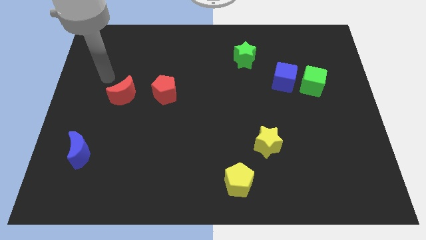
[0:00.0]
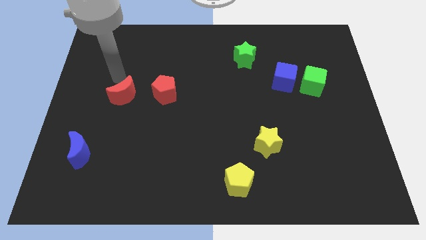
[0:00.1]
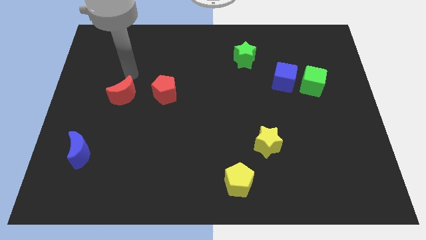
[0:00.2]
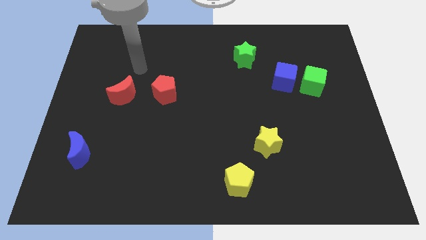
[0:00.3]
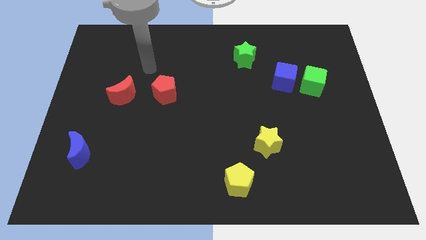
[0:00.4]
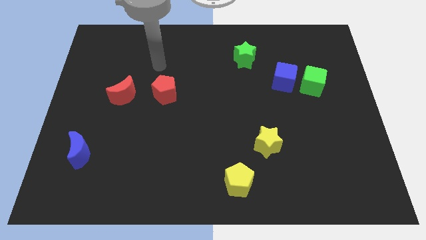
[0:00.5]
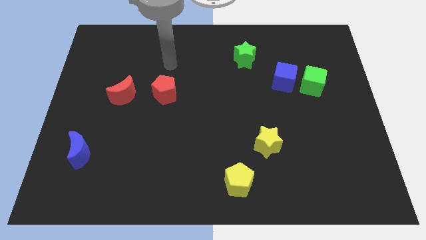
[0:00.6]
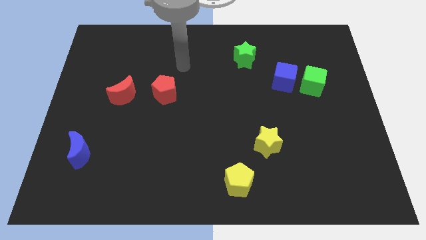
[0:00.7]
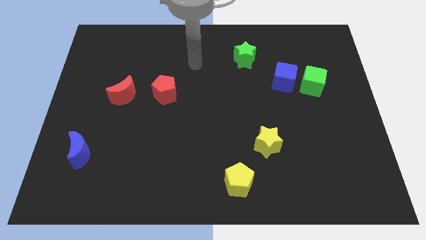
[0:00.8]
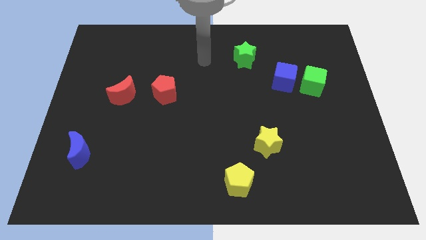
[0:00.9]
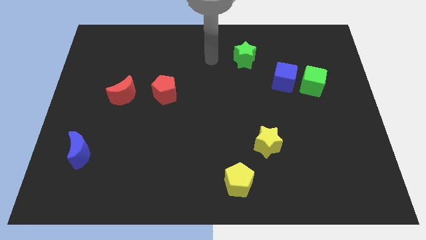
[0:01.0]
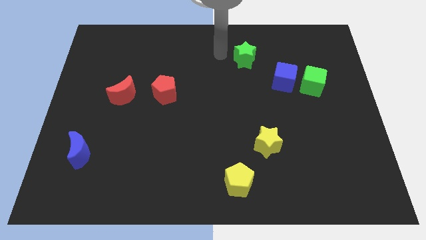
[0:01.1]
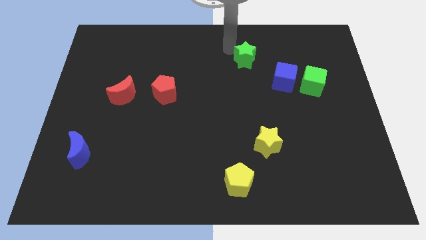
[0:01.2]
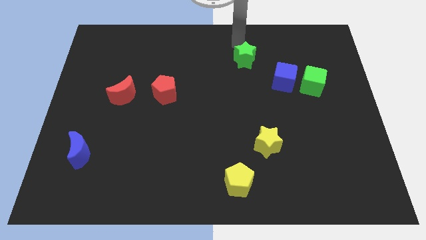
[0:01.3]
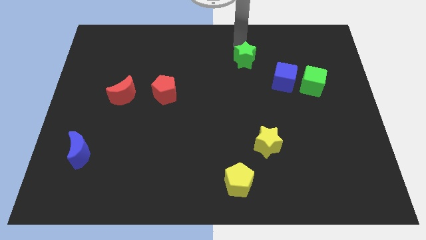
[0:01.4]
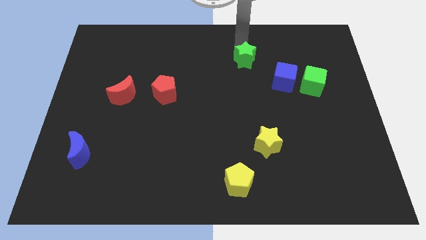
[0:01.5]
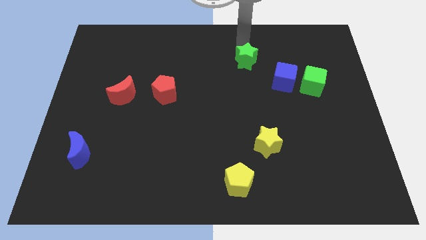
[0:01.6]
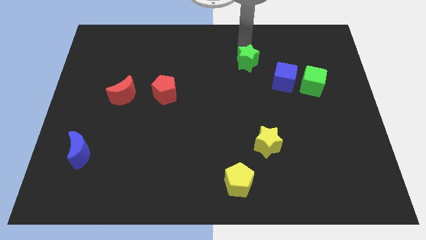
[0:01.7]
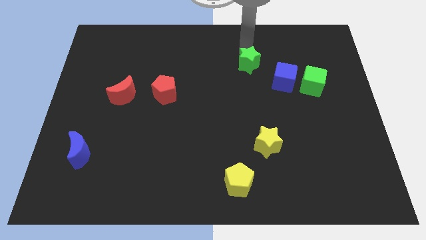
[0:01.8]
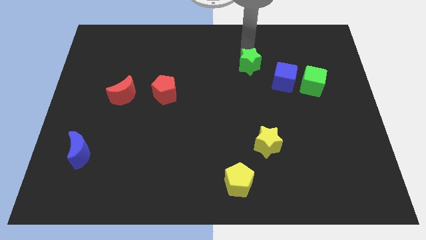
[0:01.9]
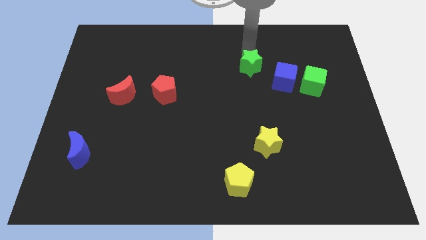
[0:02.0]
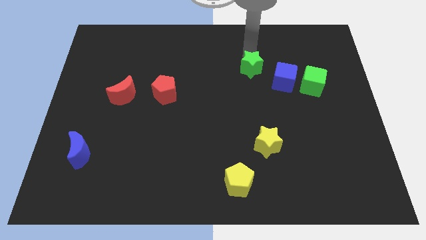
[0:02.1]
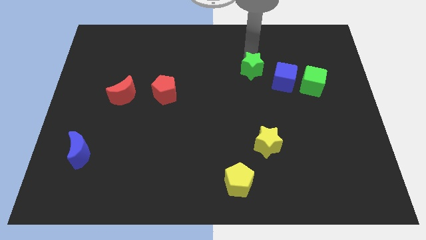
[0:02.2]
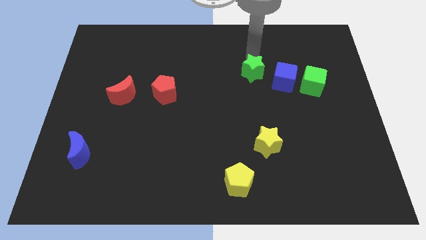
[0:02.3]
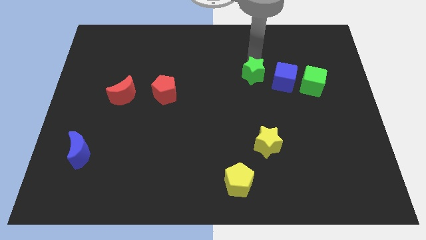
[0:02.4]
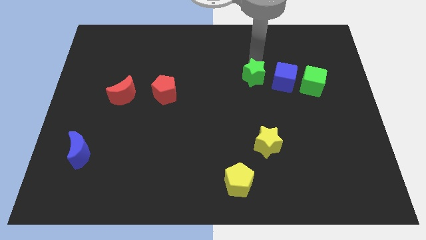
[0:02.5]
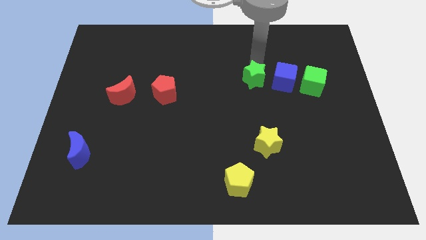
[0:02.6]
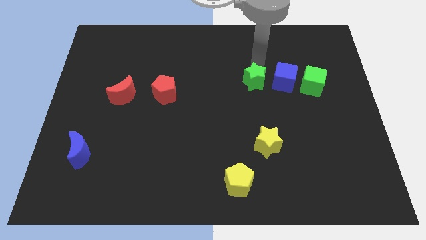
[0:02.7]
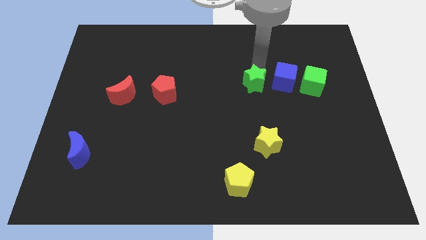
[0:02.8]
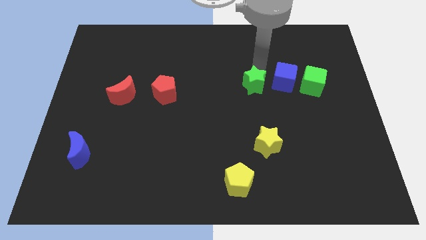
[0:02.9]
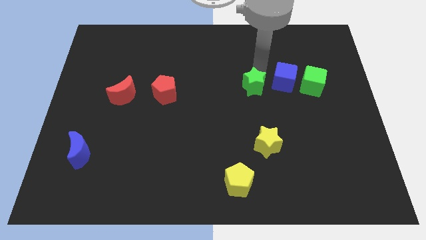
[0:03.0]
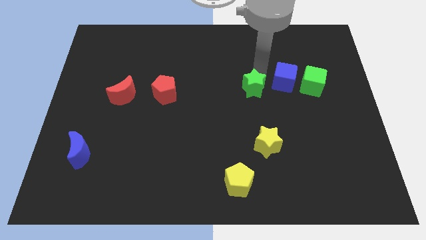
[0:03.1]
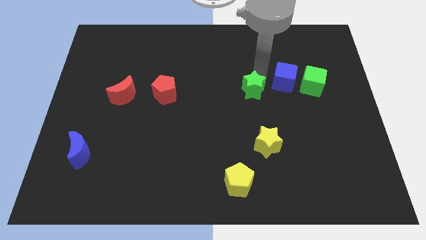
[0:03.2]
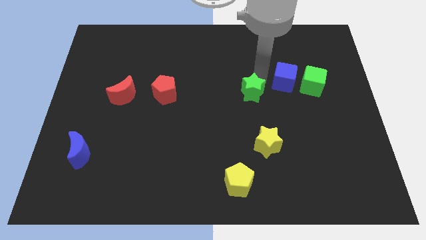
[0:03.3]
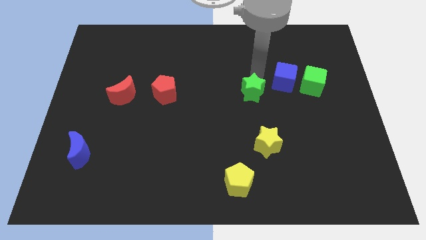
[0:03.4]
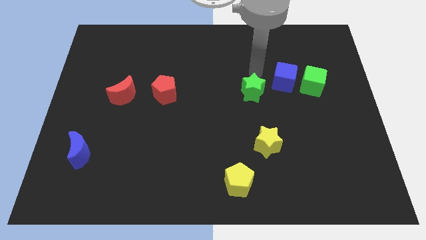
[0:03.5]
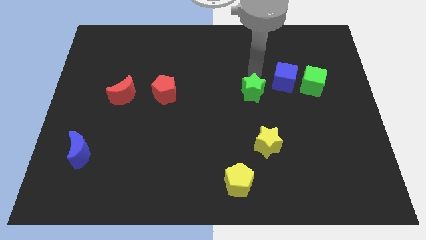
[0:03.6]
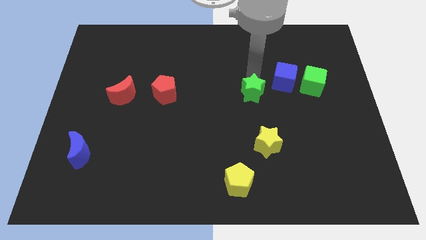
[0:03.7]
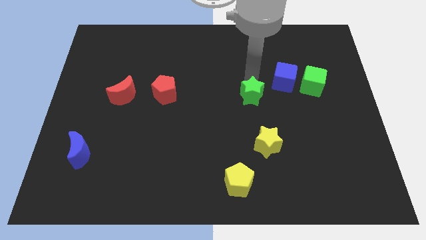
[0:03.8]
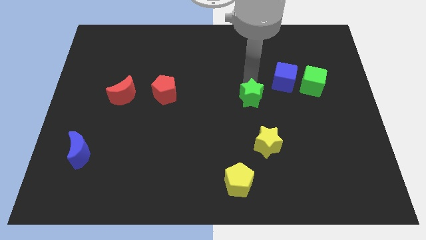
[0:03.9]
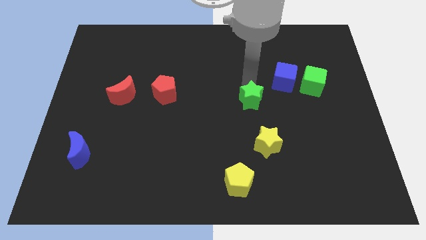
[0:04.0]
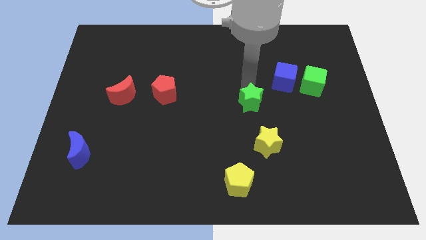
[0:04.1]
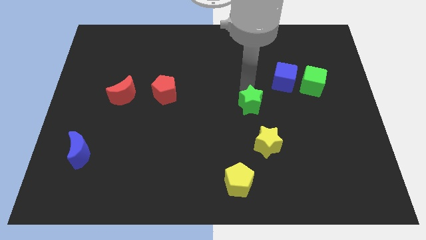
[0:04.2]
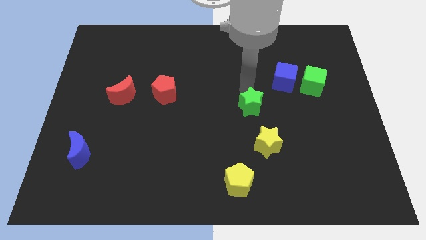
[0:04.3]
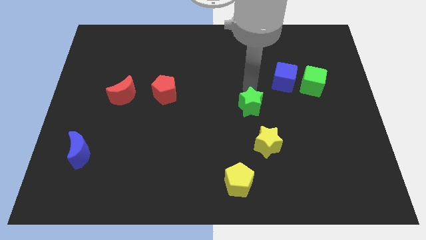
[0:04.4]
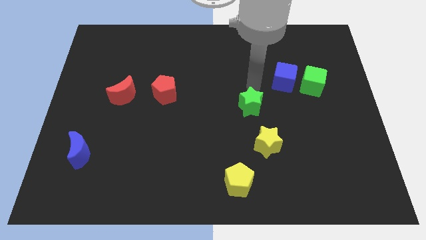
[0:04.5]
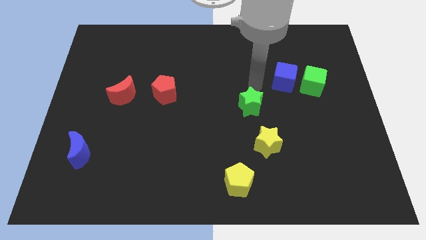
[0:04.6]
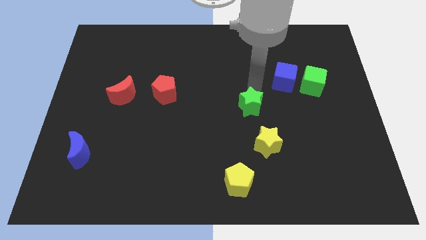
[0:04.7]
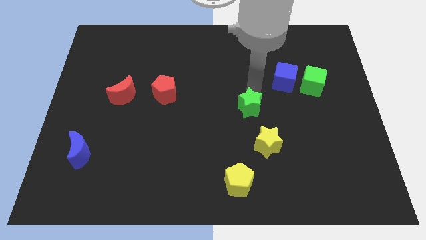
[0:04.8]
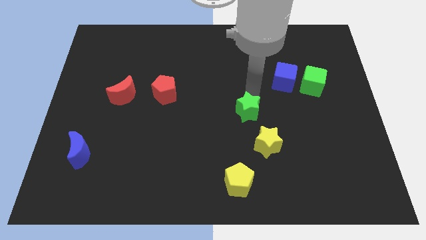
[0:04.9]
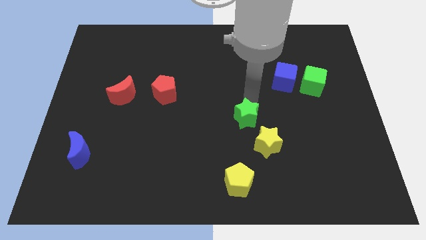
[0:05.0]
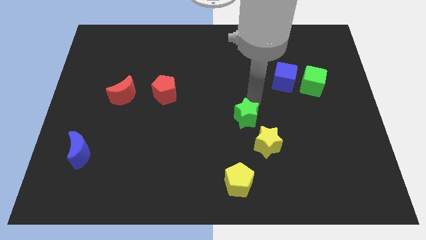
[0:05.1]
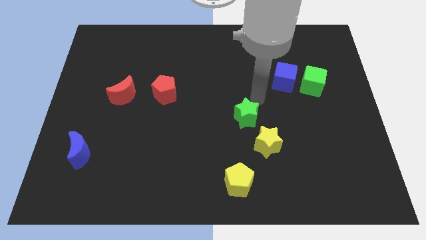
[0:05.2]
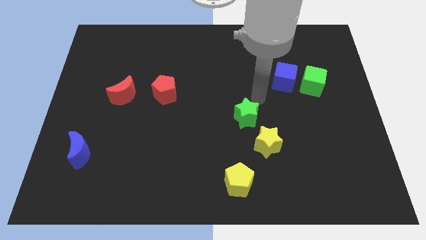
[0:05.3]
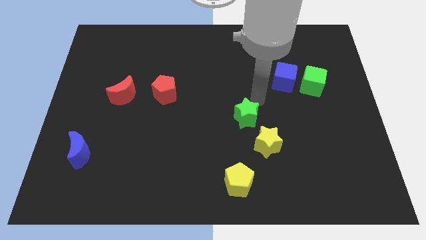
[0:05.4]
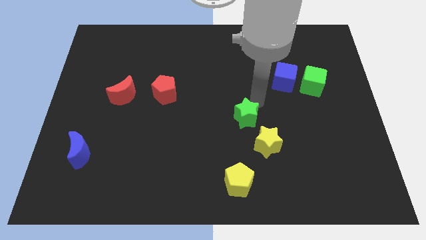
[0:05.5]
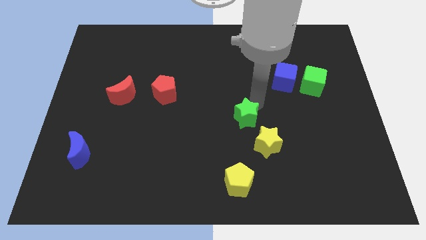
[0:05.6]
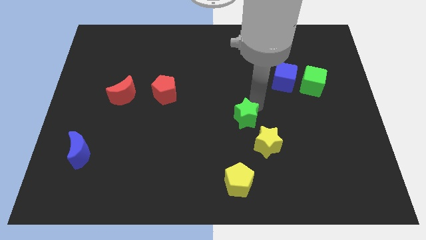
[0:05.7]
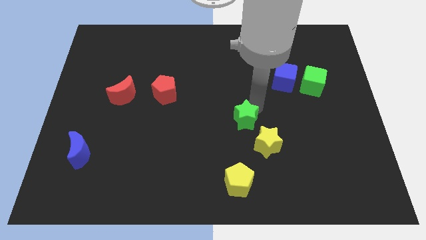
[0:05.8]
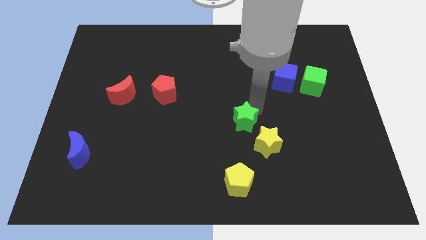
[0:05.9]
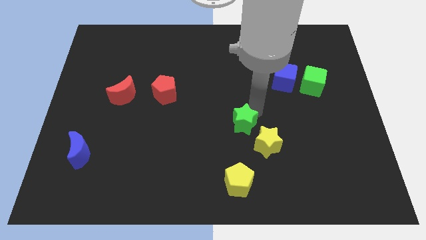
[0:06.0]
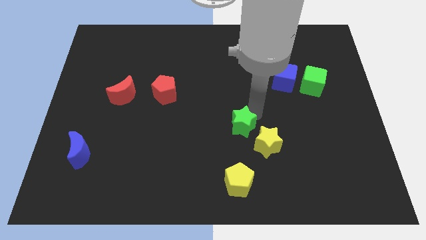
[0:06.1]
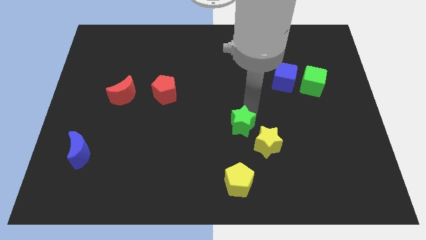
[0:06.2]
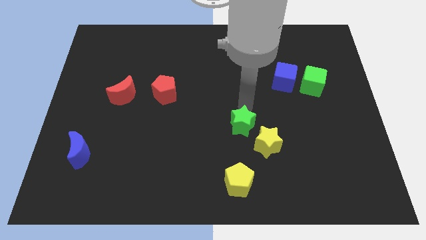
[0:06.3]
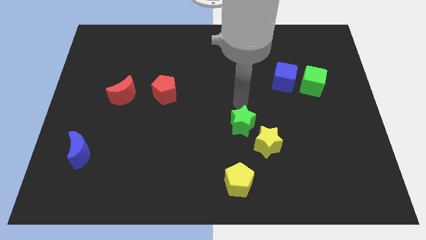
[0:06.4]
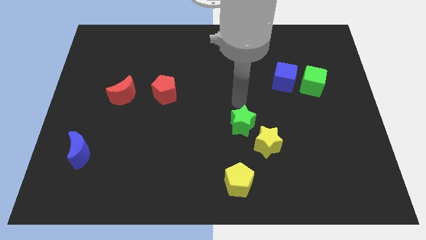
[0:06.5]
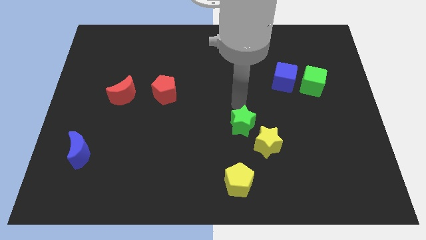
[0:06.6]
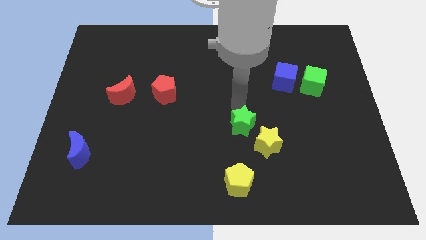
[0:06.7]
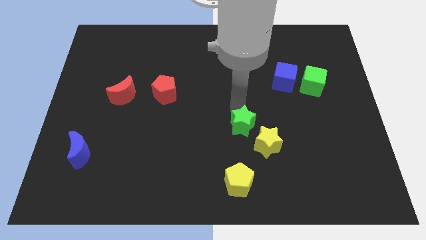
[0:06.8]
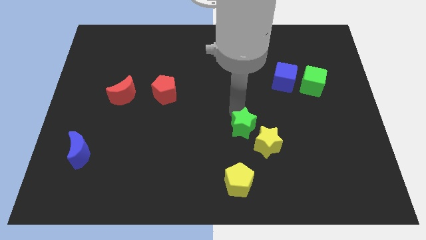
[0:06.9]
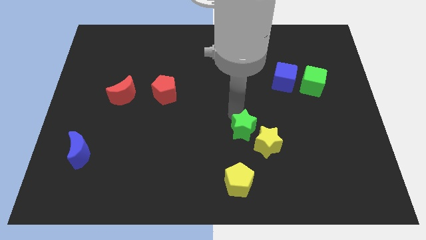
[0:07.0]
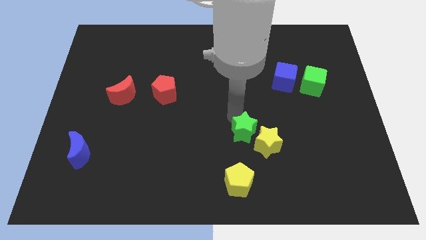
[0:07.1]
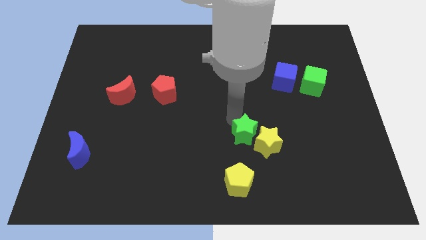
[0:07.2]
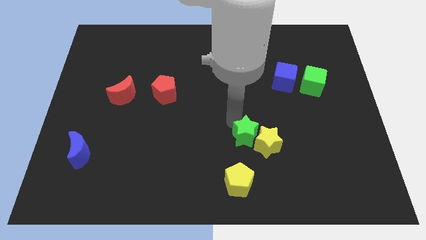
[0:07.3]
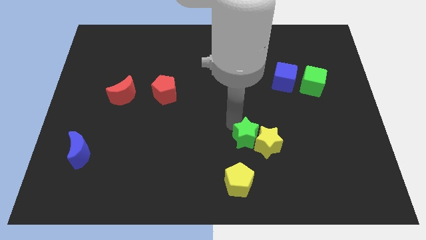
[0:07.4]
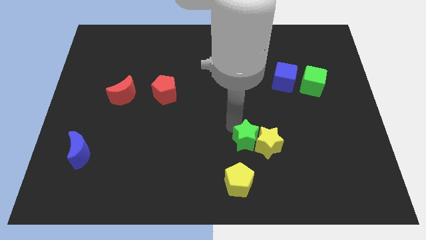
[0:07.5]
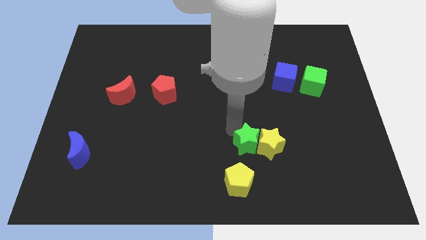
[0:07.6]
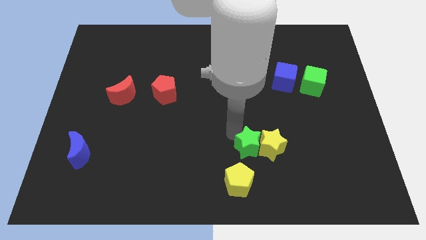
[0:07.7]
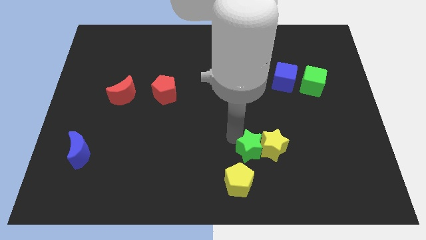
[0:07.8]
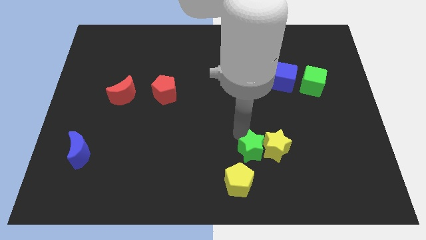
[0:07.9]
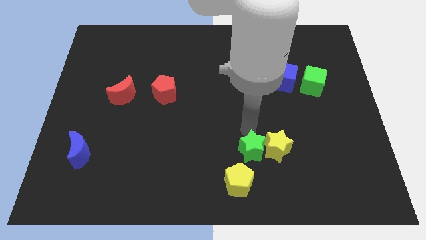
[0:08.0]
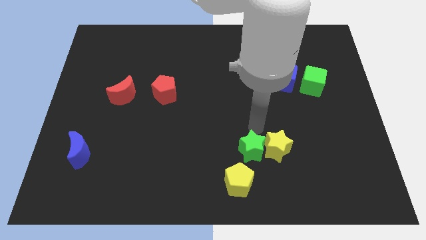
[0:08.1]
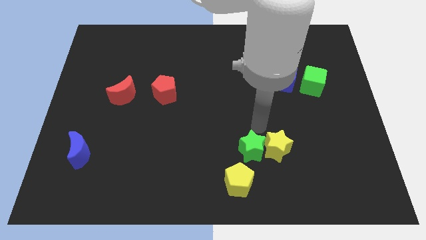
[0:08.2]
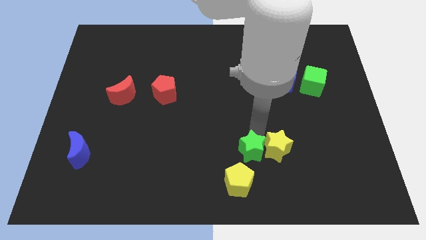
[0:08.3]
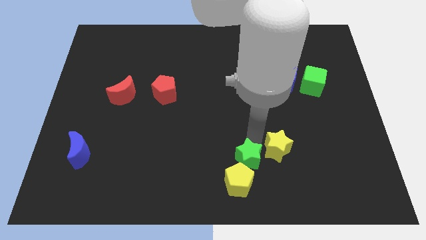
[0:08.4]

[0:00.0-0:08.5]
put the green star next to the yellow pentagon
